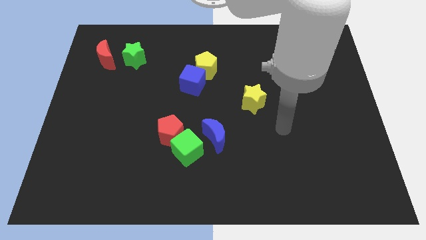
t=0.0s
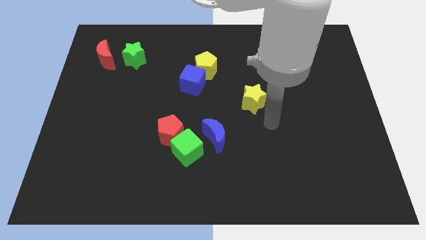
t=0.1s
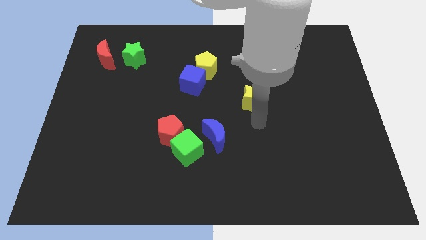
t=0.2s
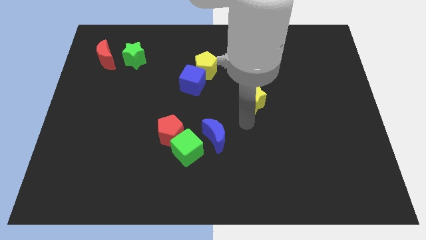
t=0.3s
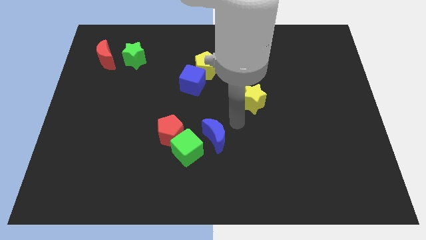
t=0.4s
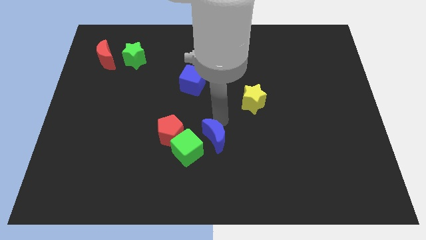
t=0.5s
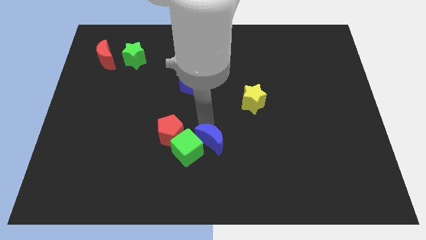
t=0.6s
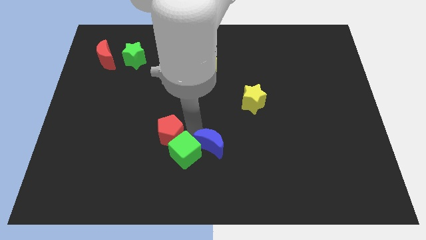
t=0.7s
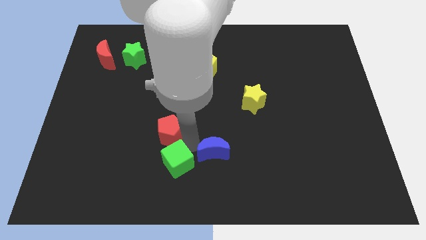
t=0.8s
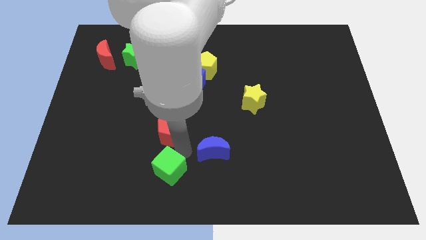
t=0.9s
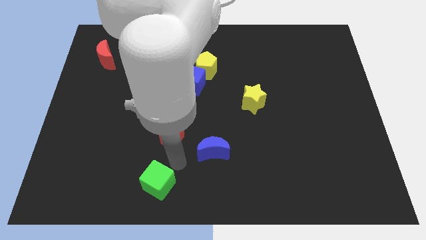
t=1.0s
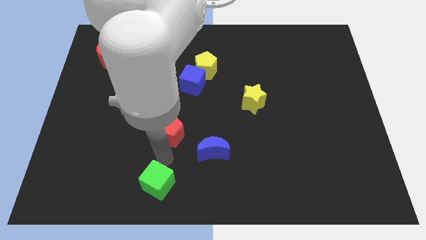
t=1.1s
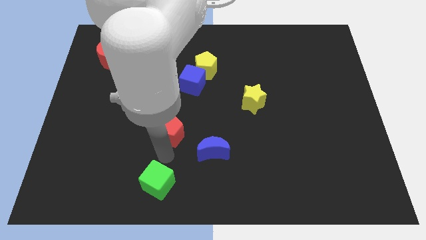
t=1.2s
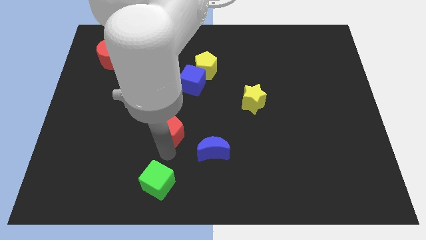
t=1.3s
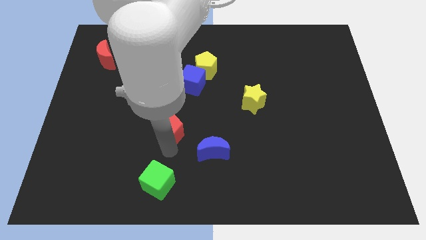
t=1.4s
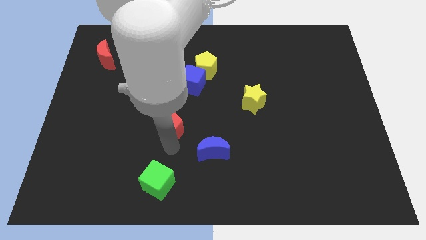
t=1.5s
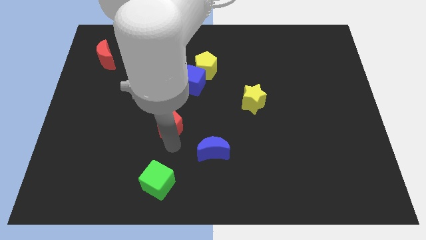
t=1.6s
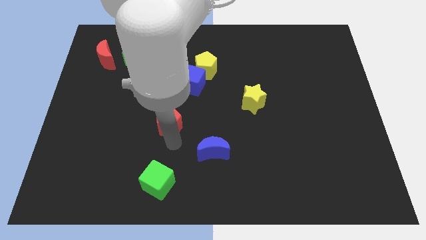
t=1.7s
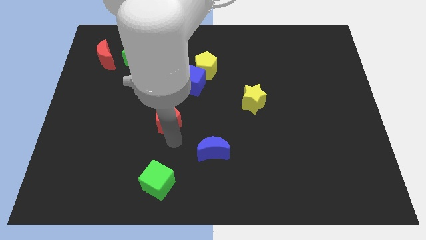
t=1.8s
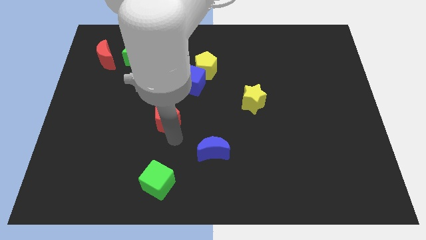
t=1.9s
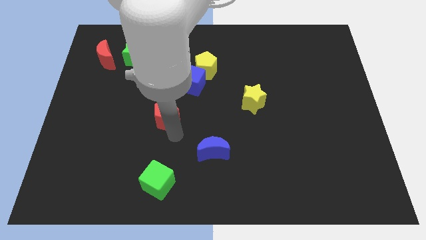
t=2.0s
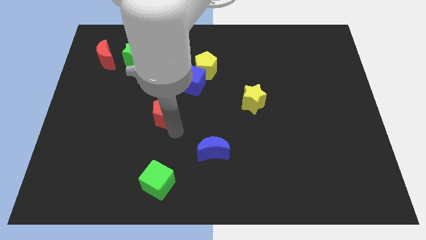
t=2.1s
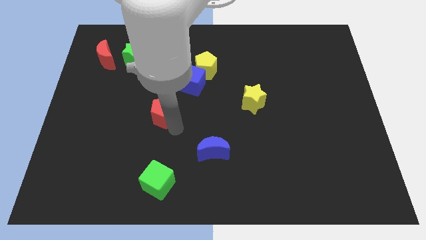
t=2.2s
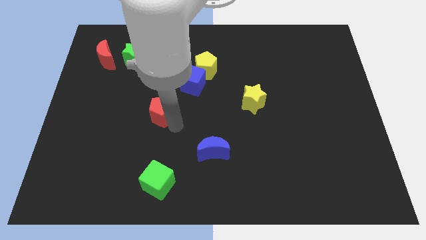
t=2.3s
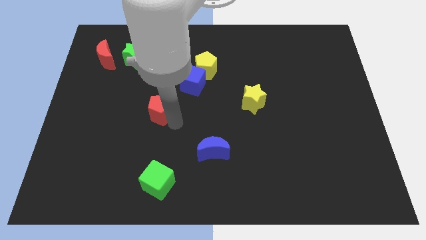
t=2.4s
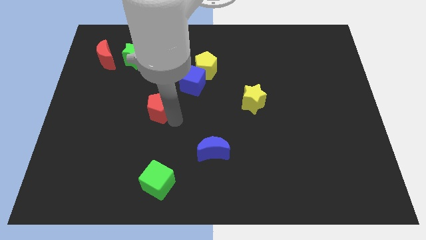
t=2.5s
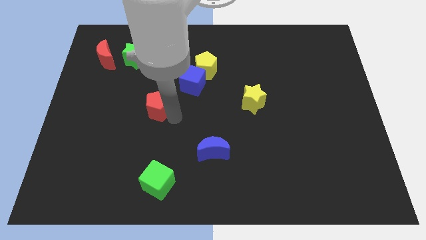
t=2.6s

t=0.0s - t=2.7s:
push the red pentagon upwards somewhat

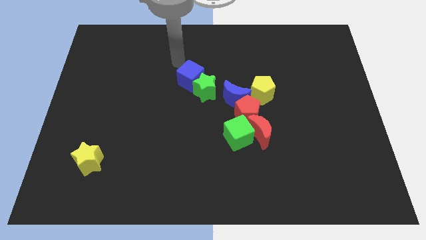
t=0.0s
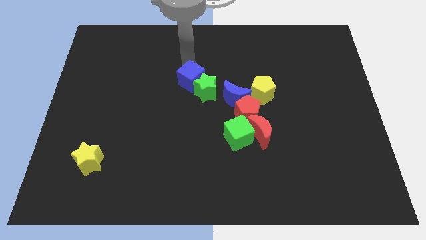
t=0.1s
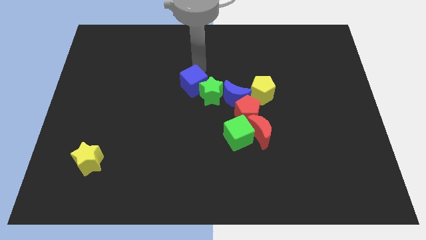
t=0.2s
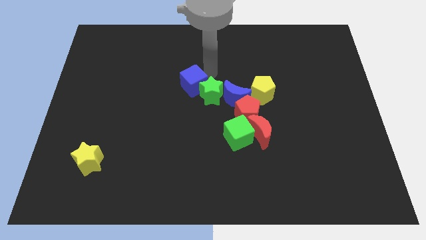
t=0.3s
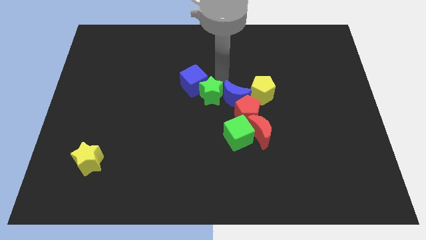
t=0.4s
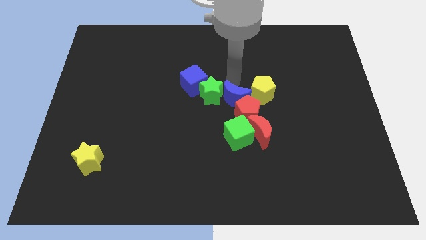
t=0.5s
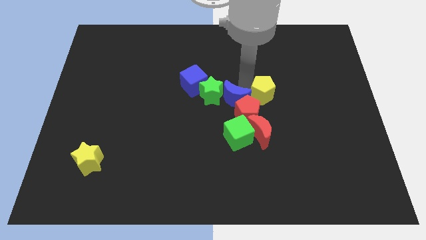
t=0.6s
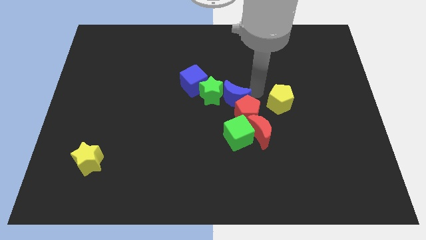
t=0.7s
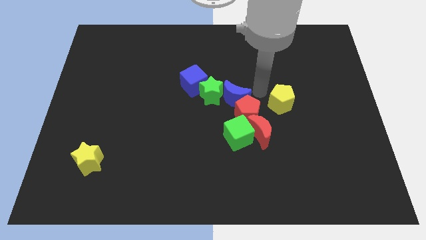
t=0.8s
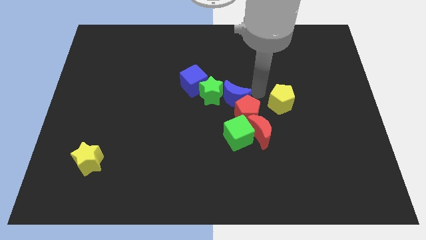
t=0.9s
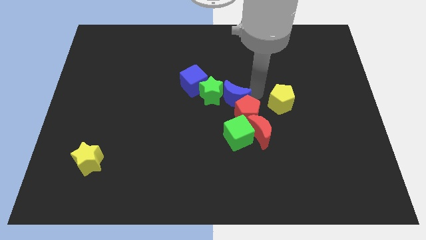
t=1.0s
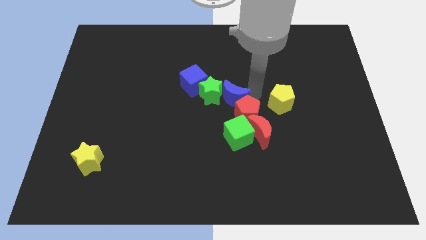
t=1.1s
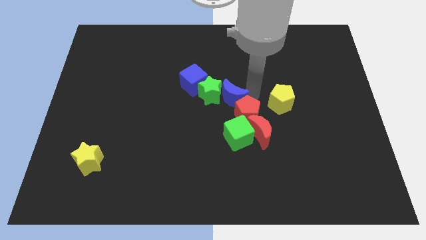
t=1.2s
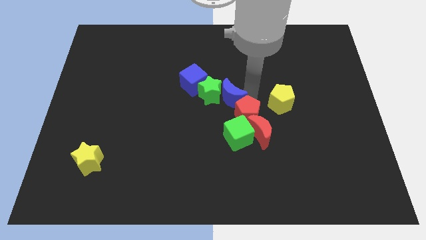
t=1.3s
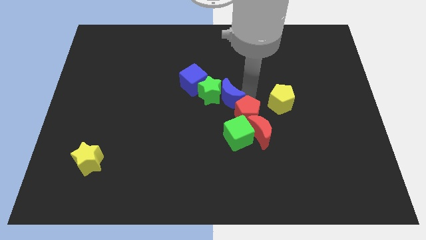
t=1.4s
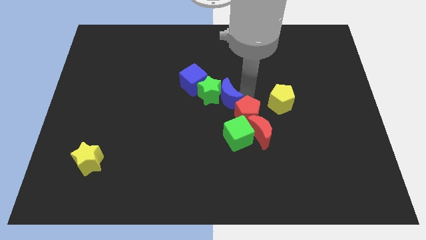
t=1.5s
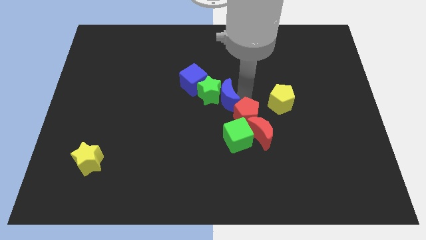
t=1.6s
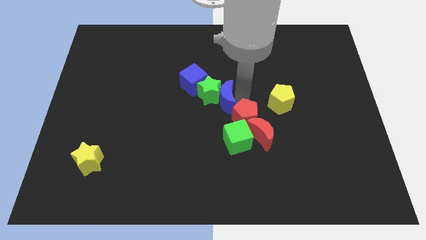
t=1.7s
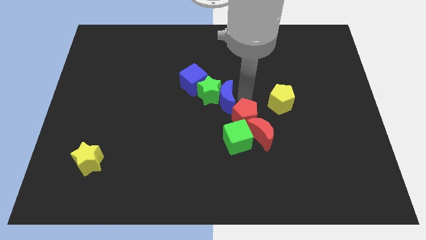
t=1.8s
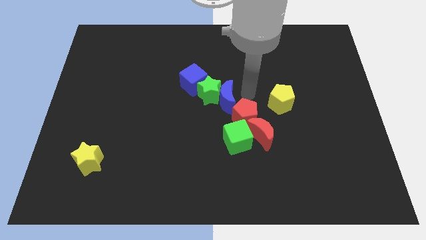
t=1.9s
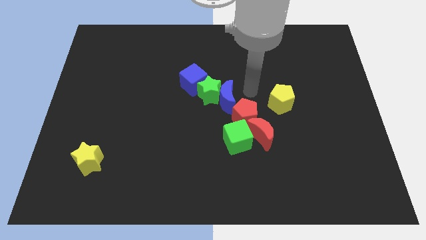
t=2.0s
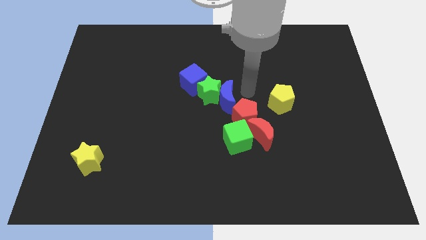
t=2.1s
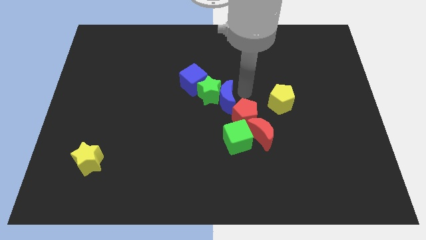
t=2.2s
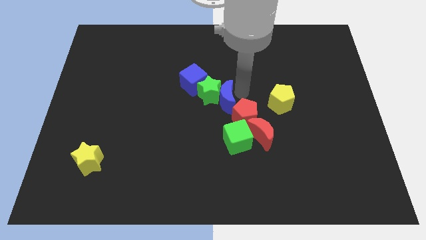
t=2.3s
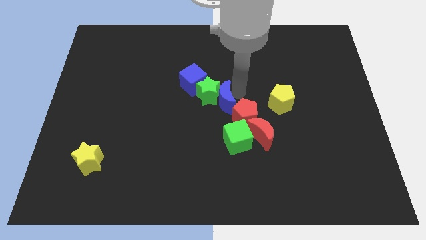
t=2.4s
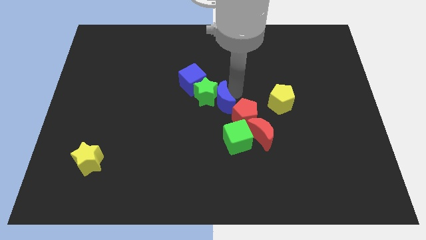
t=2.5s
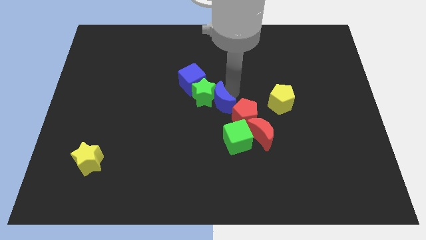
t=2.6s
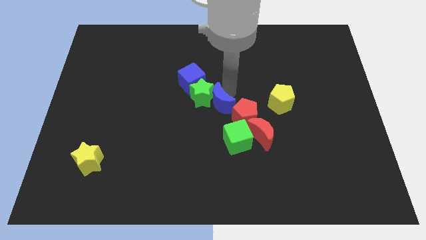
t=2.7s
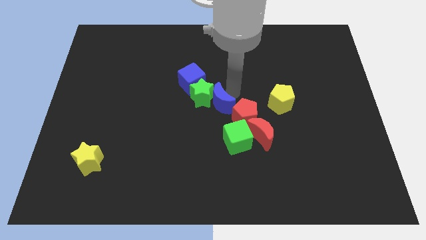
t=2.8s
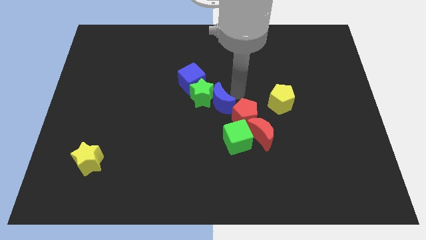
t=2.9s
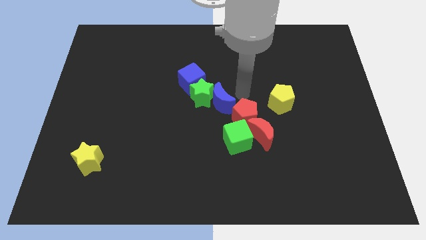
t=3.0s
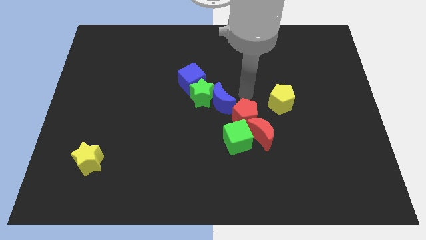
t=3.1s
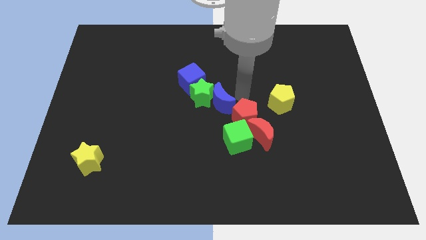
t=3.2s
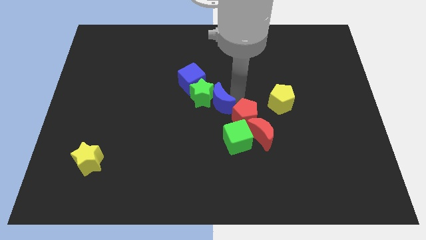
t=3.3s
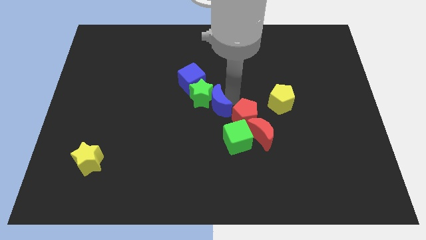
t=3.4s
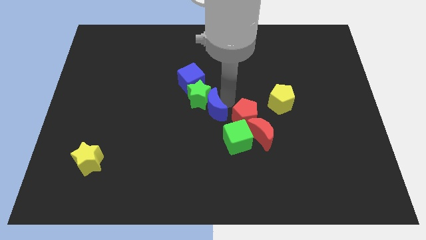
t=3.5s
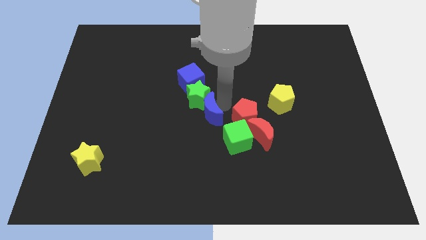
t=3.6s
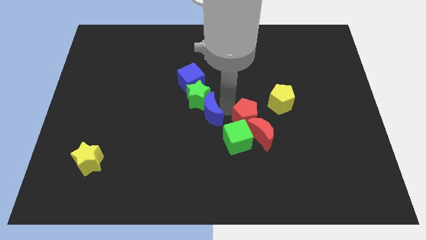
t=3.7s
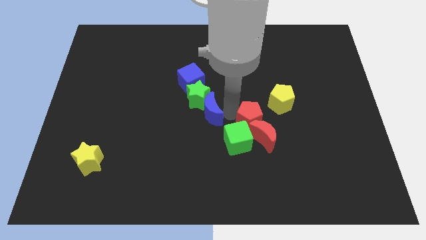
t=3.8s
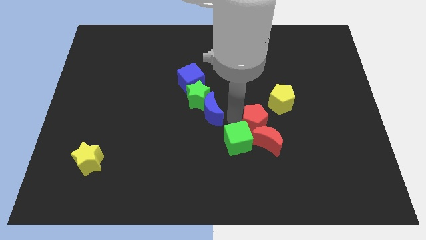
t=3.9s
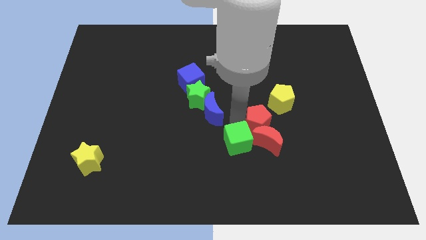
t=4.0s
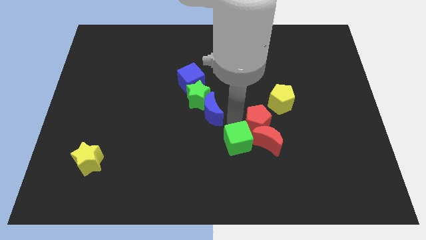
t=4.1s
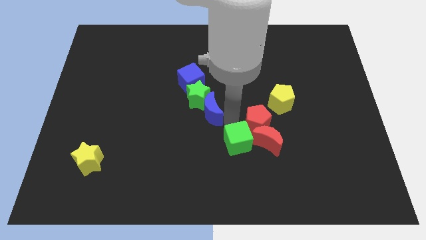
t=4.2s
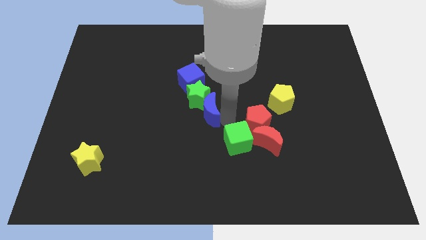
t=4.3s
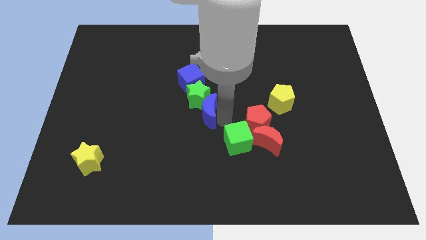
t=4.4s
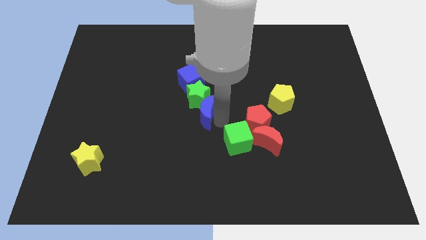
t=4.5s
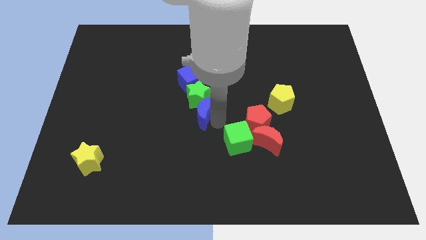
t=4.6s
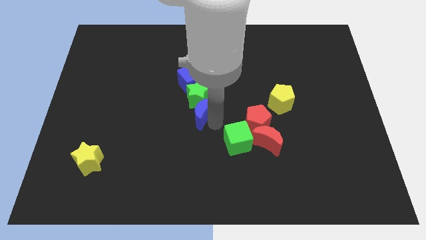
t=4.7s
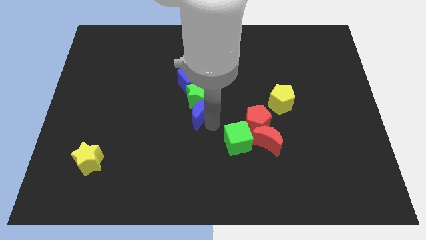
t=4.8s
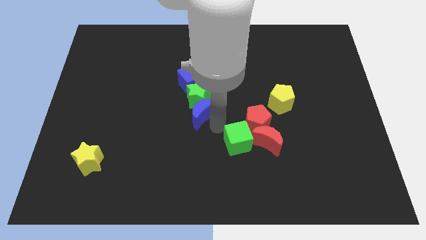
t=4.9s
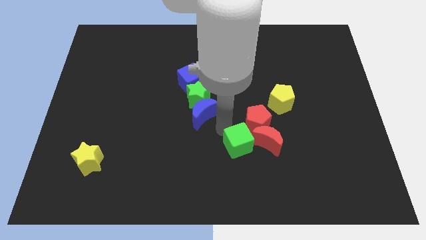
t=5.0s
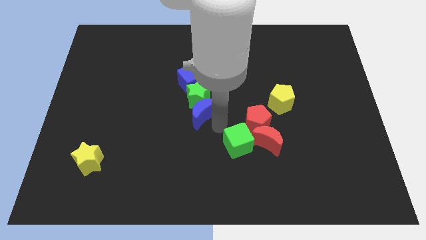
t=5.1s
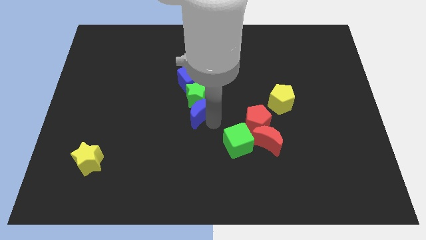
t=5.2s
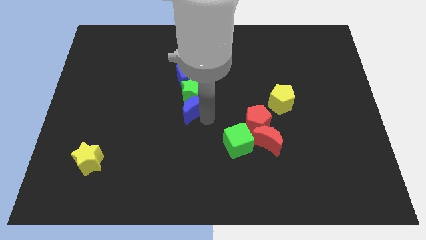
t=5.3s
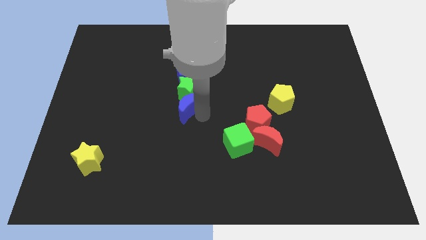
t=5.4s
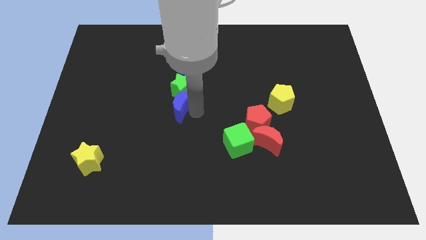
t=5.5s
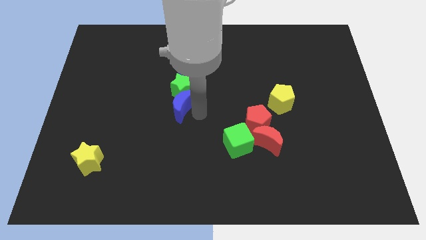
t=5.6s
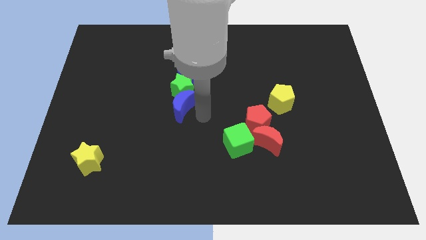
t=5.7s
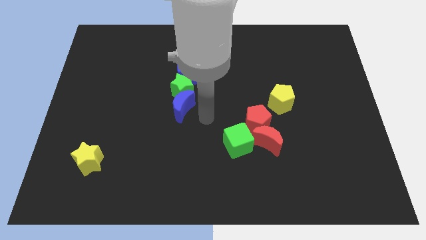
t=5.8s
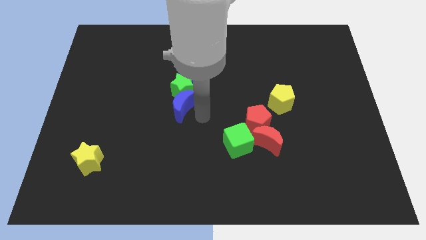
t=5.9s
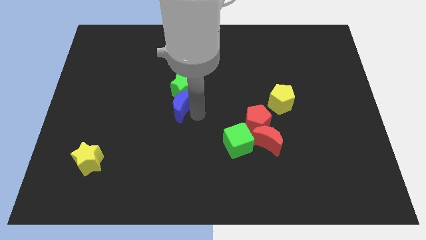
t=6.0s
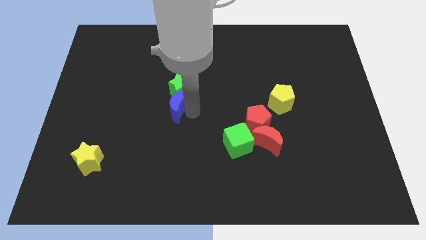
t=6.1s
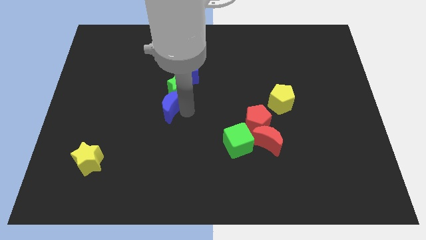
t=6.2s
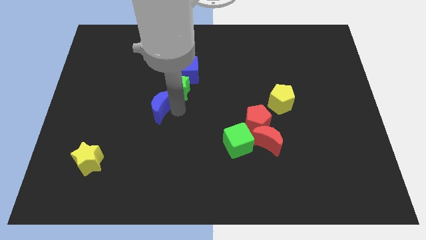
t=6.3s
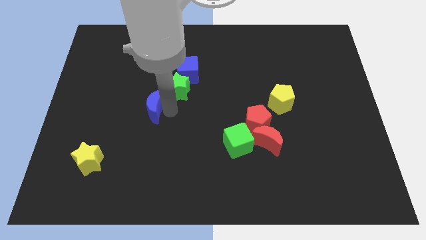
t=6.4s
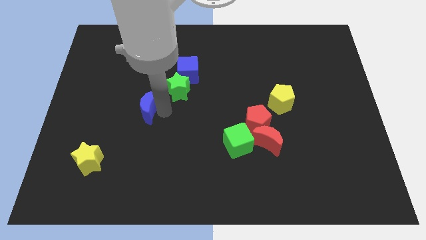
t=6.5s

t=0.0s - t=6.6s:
move the blue moon to the left
